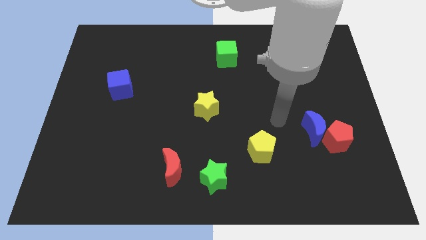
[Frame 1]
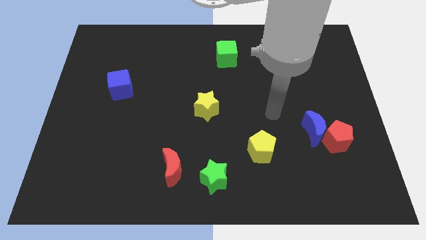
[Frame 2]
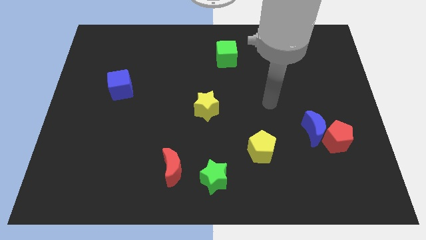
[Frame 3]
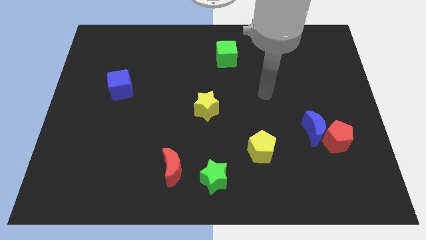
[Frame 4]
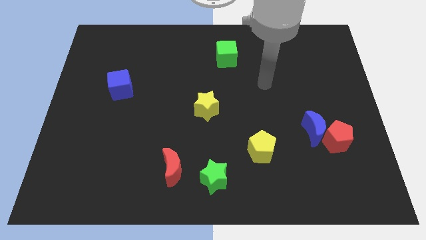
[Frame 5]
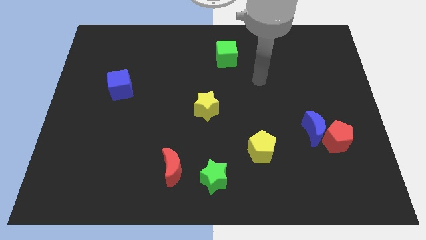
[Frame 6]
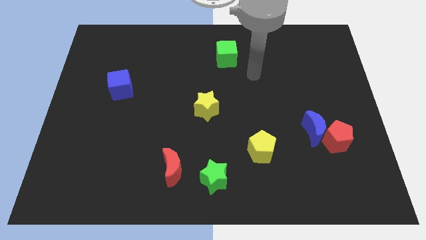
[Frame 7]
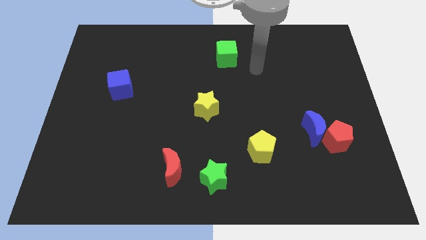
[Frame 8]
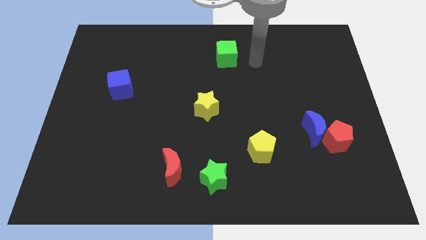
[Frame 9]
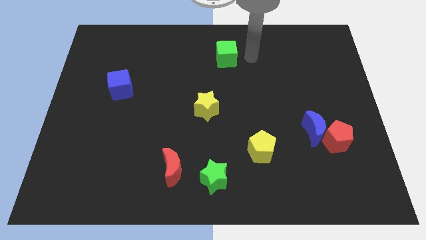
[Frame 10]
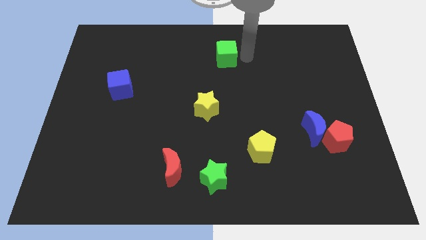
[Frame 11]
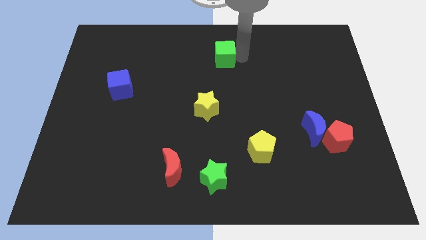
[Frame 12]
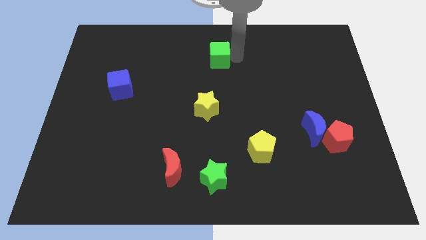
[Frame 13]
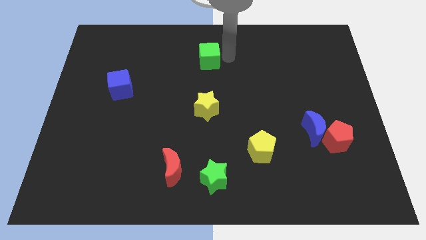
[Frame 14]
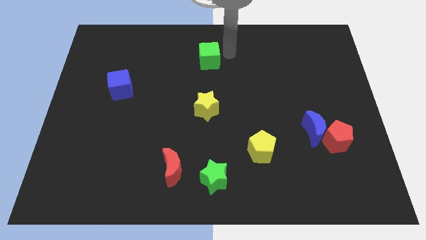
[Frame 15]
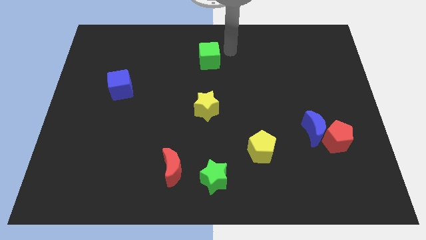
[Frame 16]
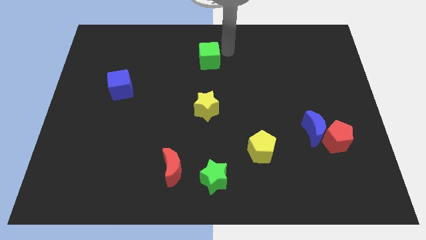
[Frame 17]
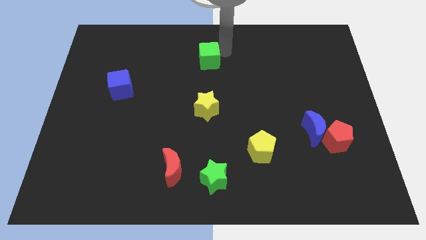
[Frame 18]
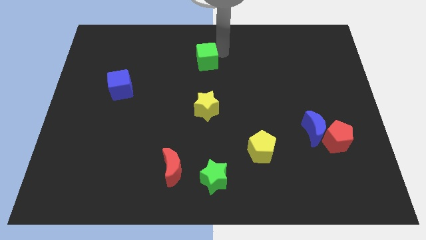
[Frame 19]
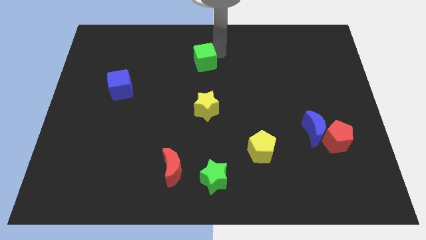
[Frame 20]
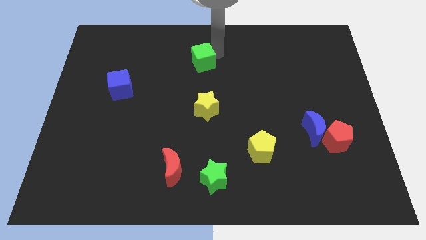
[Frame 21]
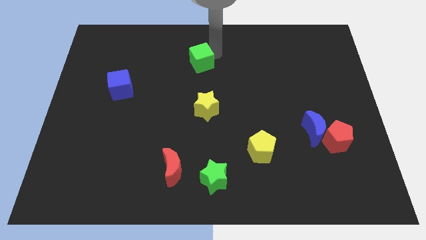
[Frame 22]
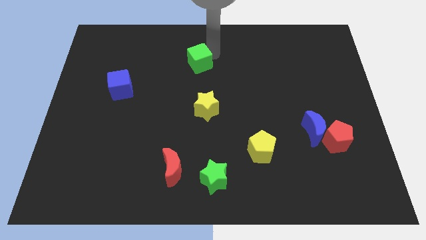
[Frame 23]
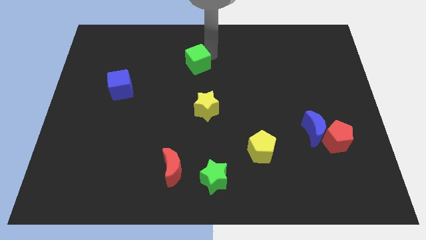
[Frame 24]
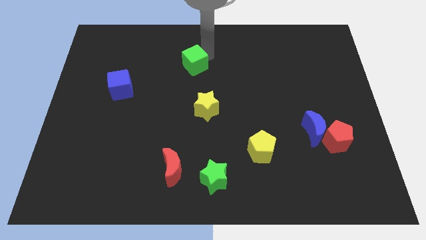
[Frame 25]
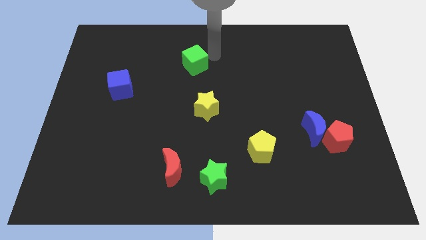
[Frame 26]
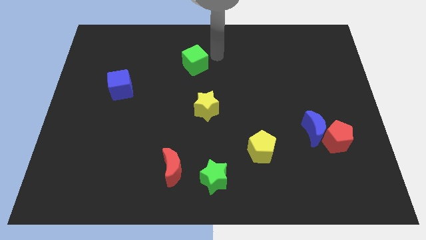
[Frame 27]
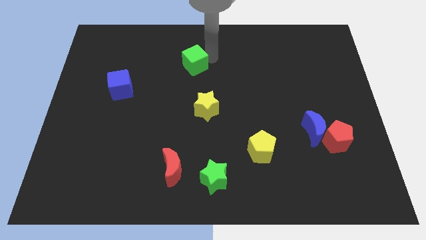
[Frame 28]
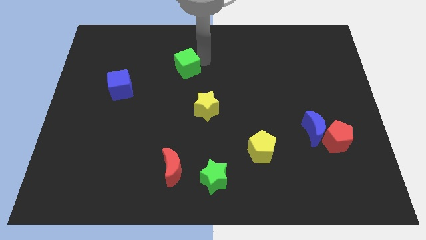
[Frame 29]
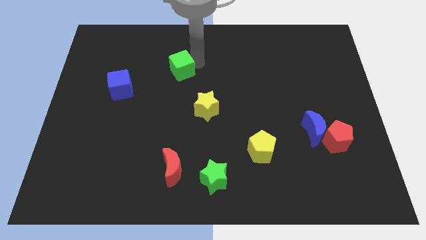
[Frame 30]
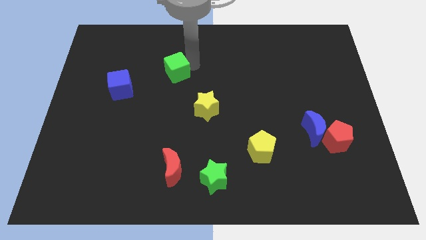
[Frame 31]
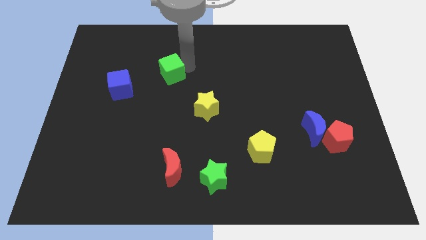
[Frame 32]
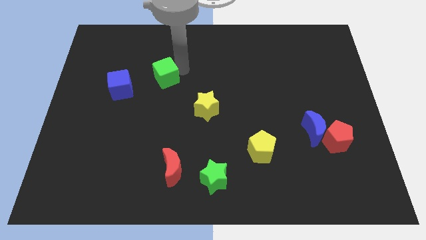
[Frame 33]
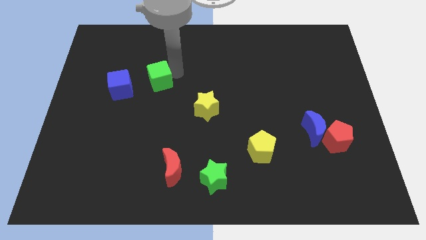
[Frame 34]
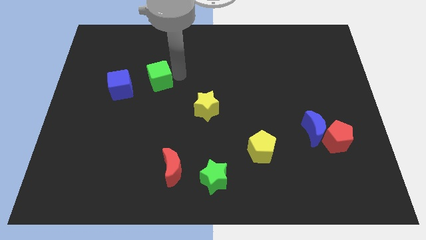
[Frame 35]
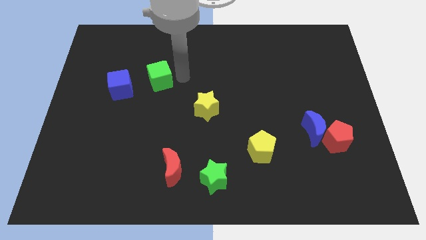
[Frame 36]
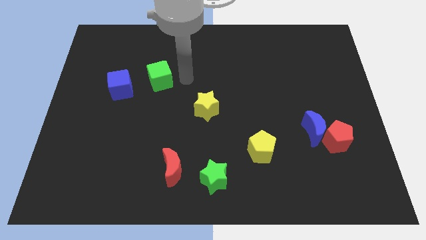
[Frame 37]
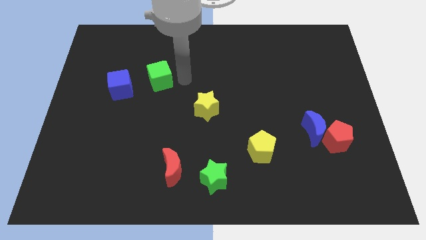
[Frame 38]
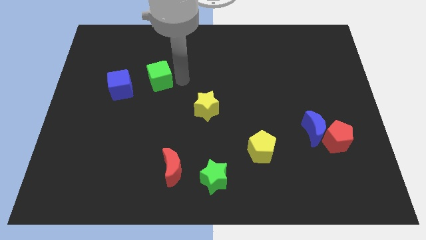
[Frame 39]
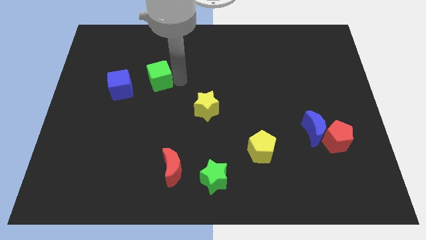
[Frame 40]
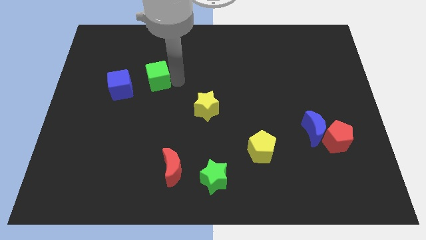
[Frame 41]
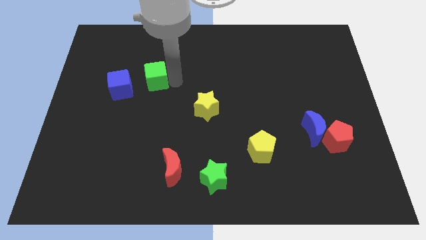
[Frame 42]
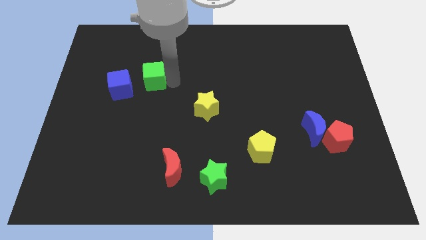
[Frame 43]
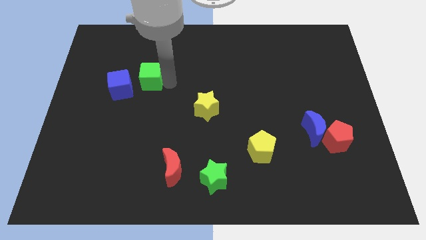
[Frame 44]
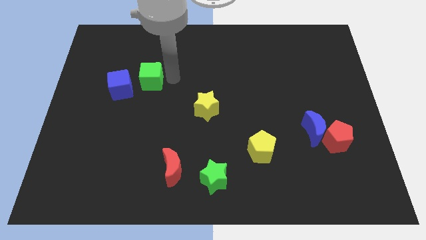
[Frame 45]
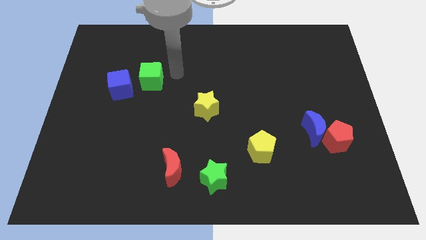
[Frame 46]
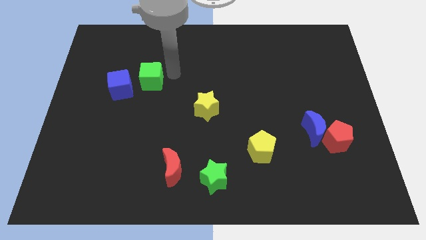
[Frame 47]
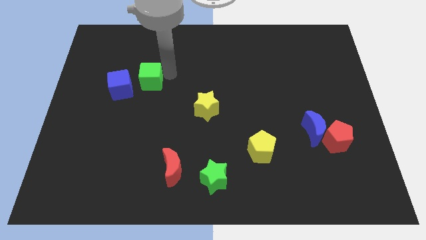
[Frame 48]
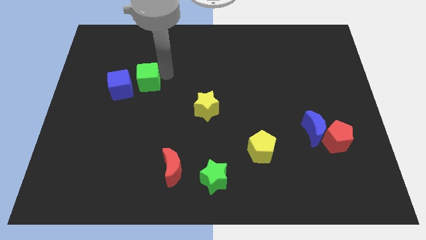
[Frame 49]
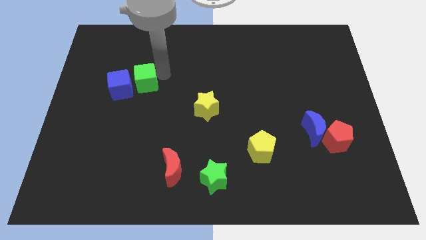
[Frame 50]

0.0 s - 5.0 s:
push the green cube to the blue cube

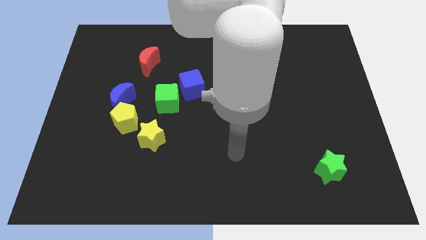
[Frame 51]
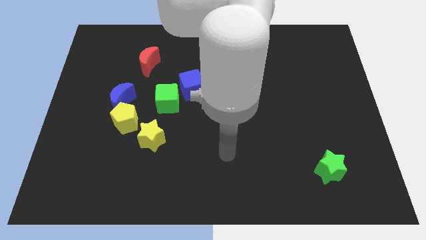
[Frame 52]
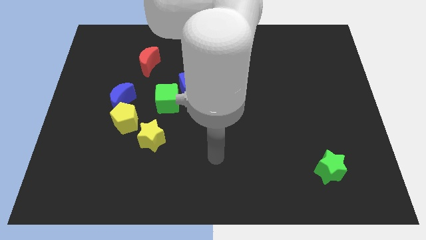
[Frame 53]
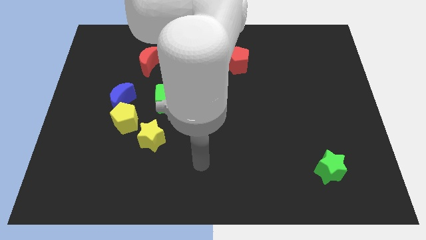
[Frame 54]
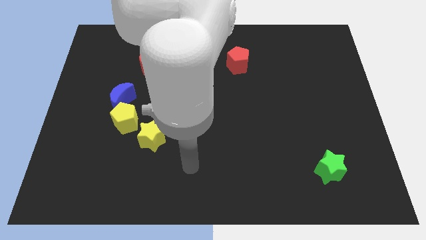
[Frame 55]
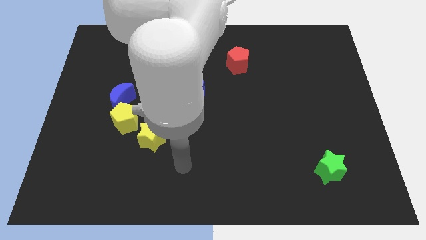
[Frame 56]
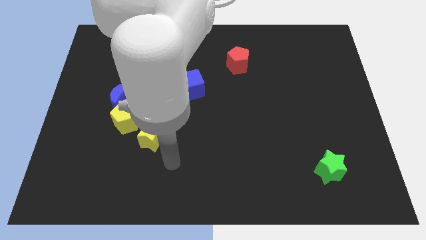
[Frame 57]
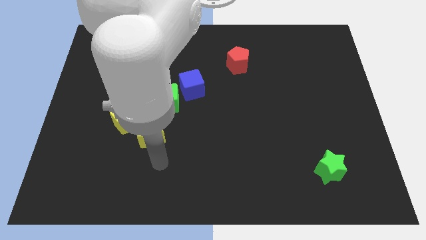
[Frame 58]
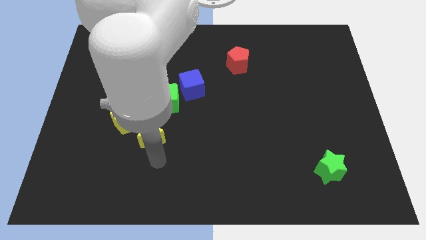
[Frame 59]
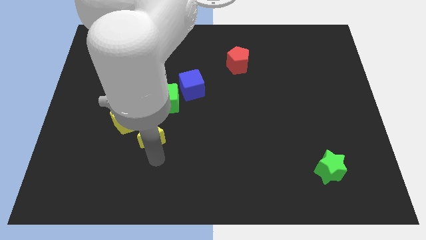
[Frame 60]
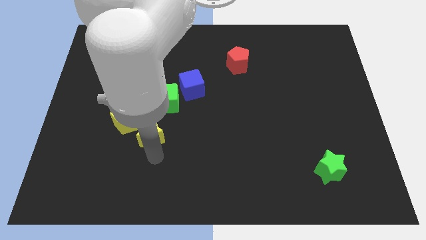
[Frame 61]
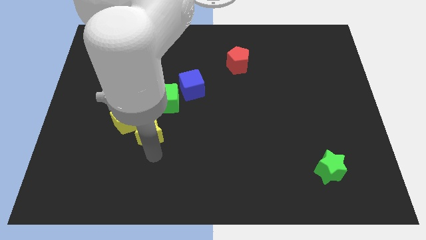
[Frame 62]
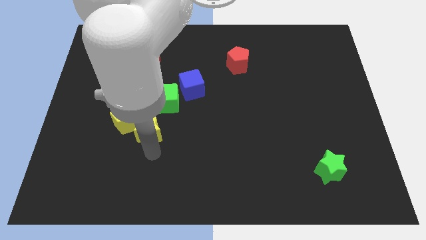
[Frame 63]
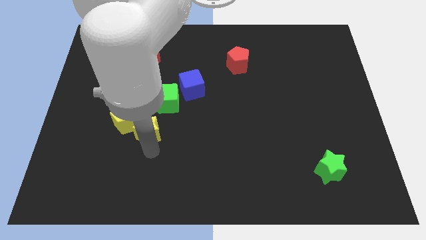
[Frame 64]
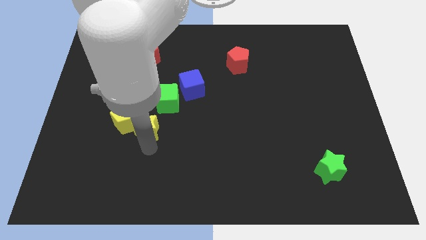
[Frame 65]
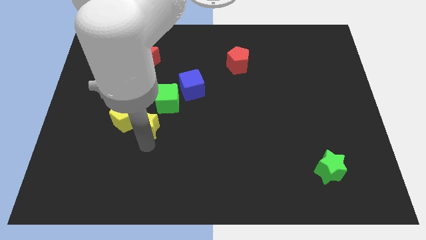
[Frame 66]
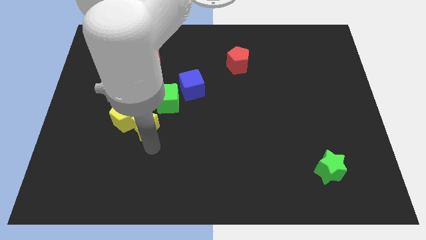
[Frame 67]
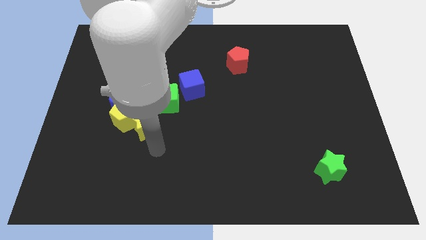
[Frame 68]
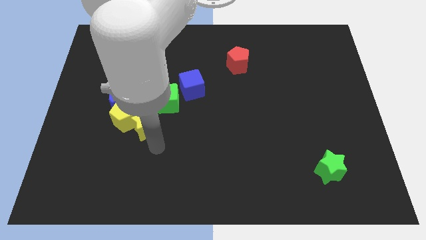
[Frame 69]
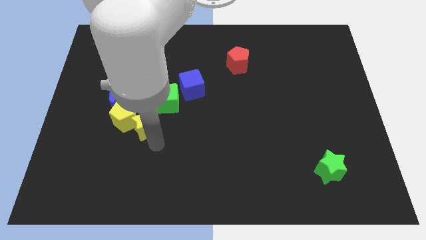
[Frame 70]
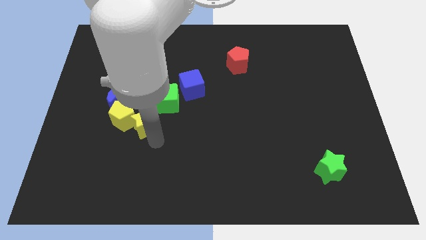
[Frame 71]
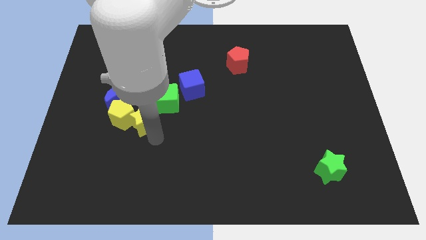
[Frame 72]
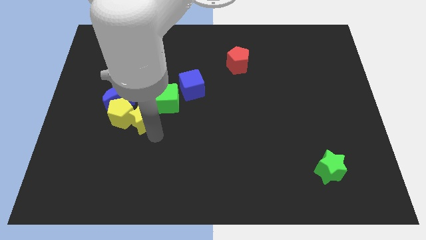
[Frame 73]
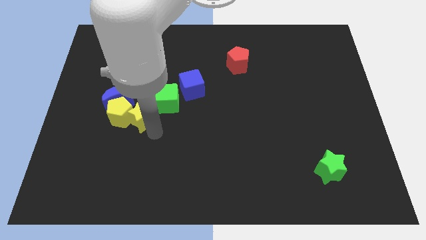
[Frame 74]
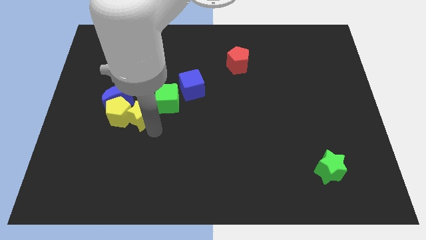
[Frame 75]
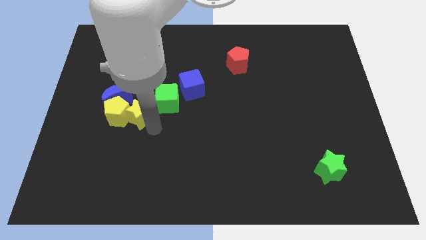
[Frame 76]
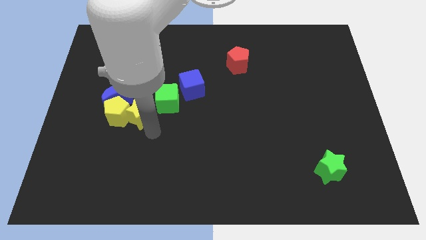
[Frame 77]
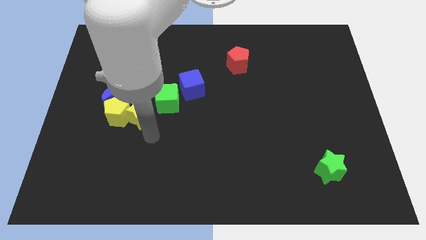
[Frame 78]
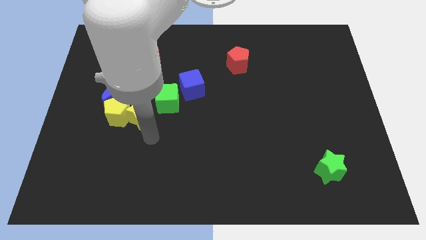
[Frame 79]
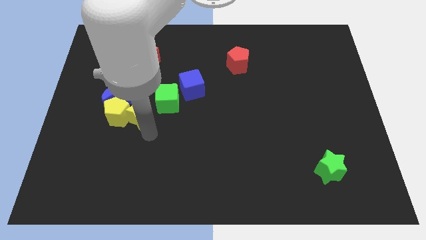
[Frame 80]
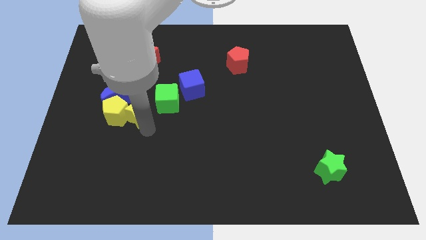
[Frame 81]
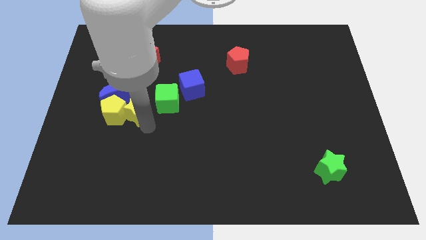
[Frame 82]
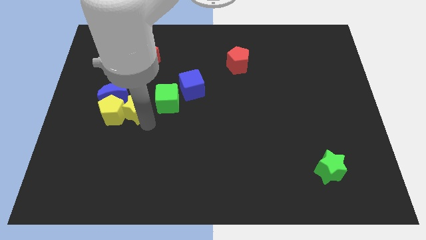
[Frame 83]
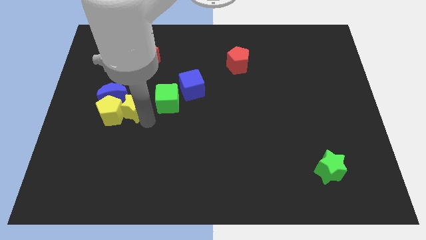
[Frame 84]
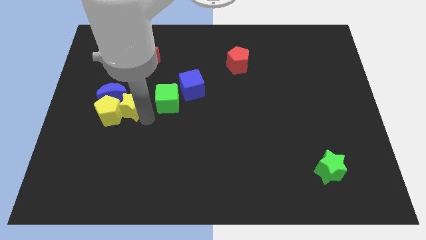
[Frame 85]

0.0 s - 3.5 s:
put the yellow star next to the blue moon
